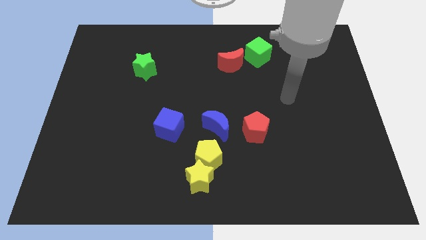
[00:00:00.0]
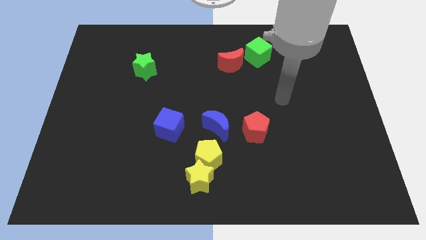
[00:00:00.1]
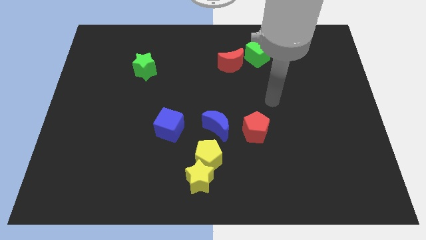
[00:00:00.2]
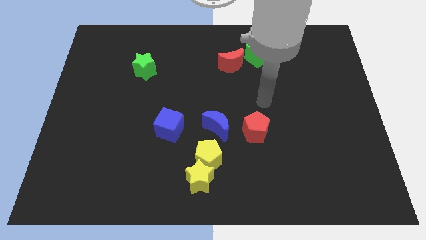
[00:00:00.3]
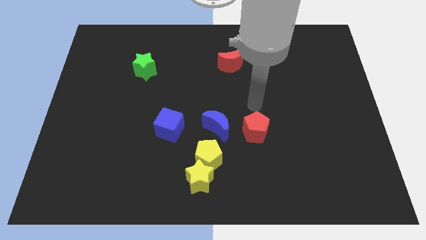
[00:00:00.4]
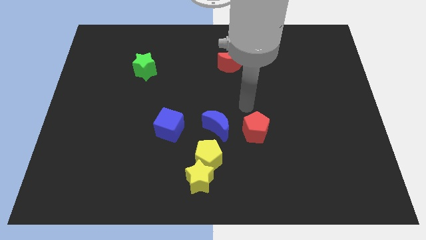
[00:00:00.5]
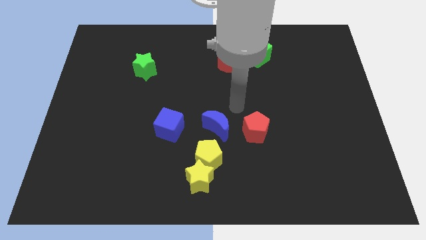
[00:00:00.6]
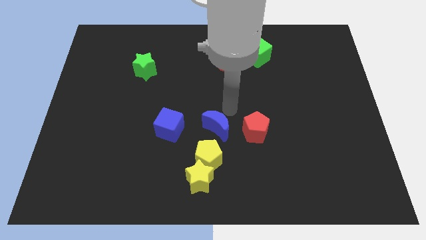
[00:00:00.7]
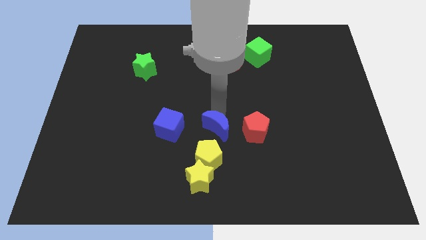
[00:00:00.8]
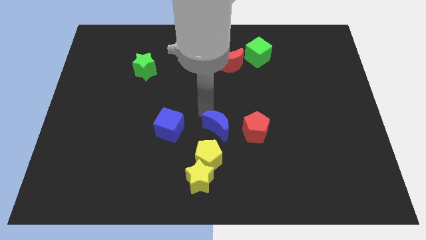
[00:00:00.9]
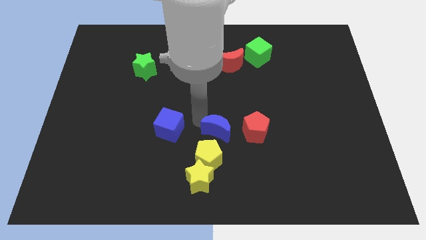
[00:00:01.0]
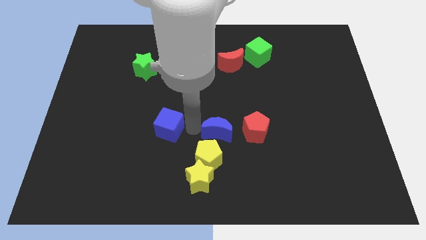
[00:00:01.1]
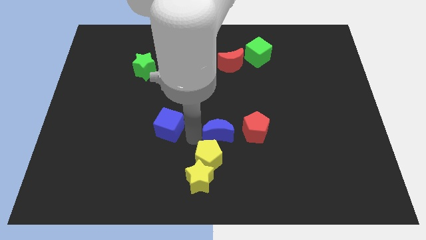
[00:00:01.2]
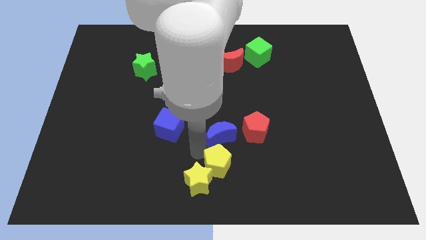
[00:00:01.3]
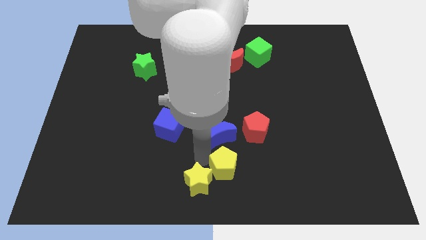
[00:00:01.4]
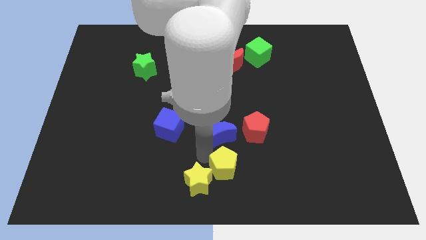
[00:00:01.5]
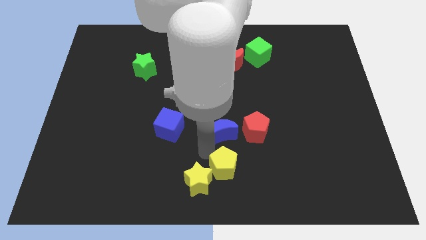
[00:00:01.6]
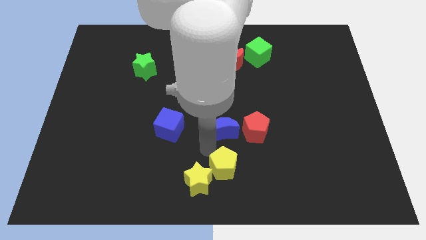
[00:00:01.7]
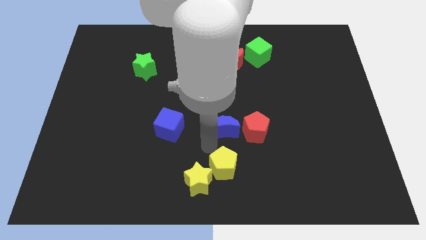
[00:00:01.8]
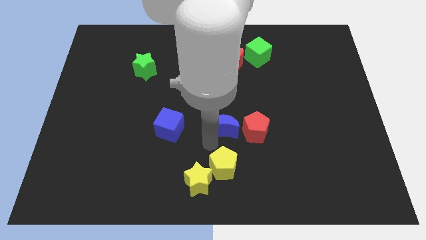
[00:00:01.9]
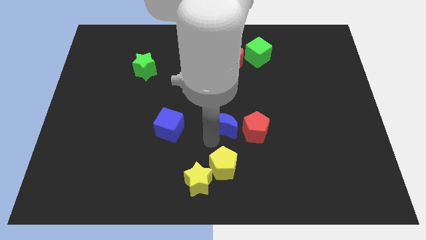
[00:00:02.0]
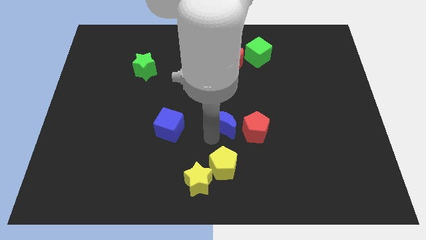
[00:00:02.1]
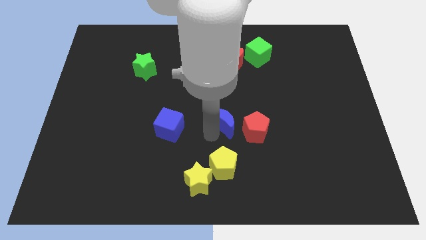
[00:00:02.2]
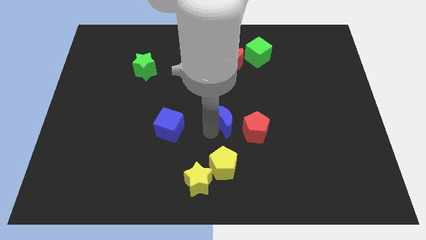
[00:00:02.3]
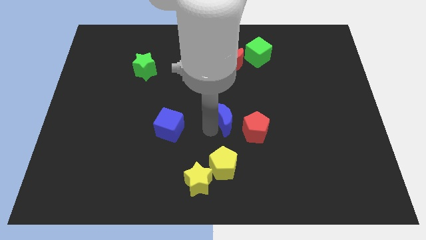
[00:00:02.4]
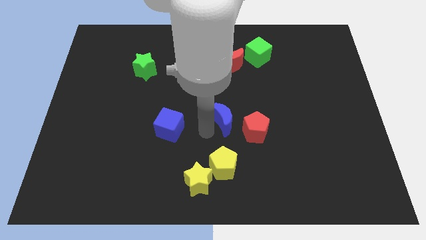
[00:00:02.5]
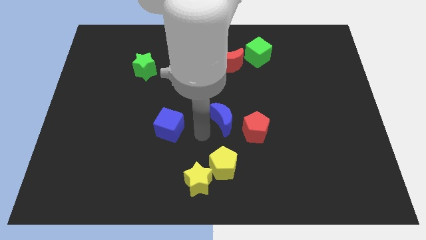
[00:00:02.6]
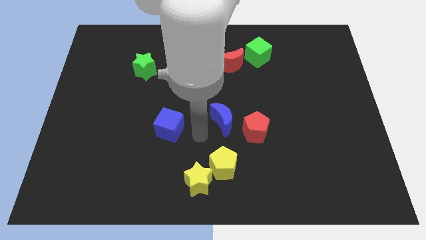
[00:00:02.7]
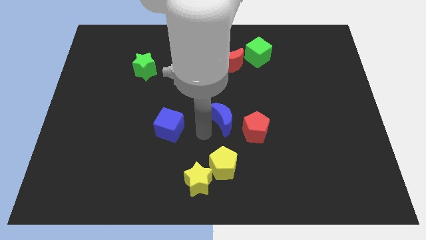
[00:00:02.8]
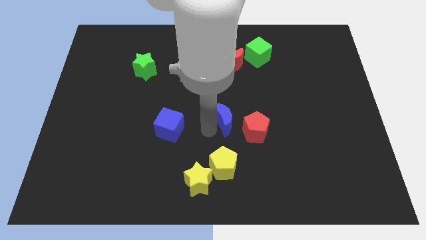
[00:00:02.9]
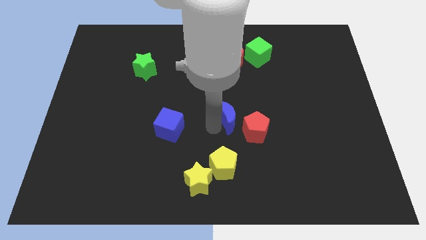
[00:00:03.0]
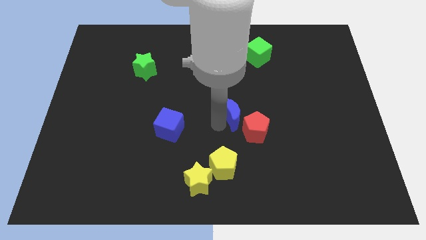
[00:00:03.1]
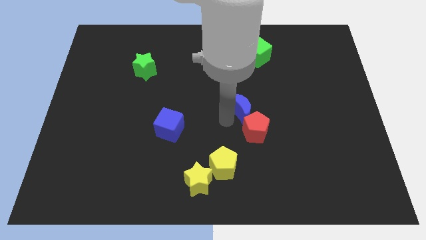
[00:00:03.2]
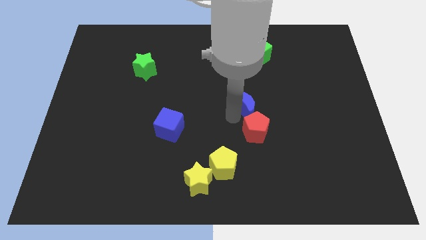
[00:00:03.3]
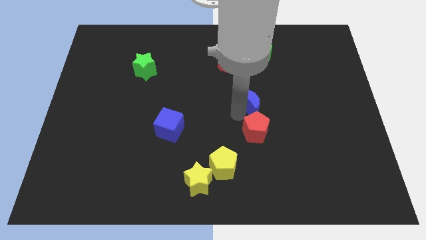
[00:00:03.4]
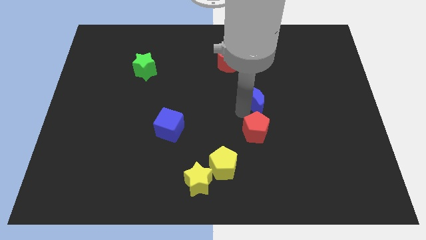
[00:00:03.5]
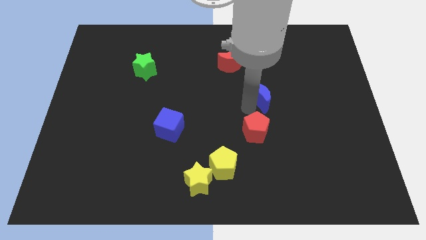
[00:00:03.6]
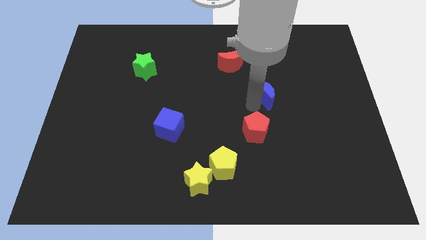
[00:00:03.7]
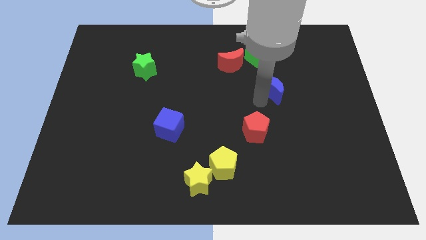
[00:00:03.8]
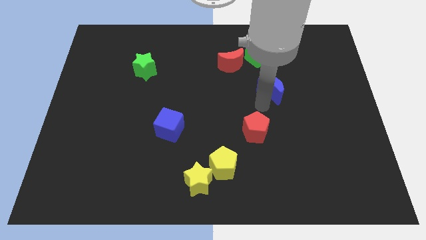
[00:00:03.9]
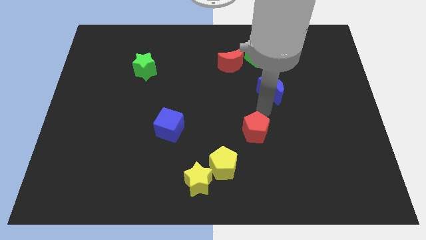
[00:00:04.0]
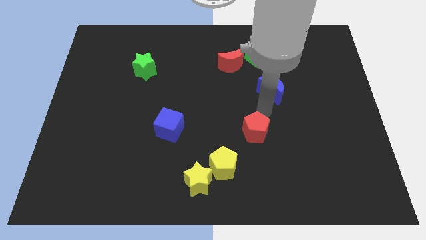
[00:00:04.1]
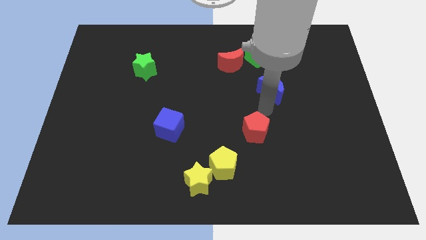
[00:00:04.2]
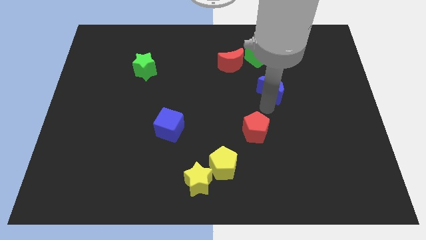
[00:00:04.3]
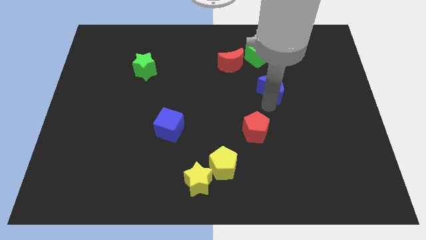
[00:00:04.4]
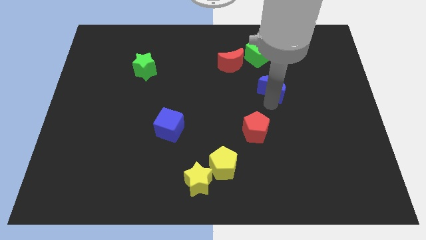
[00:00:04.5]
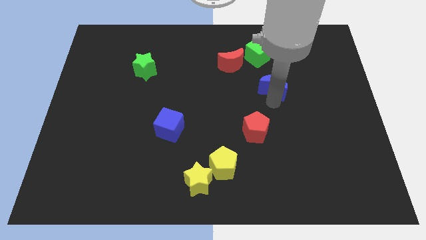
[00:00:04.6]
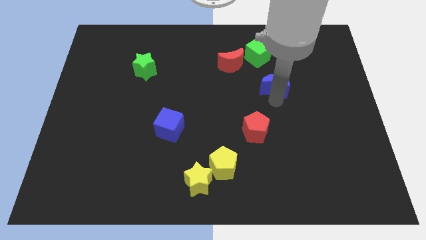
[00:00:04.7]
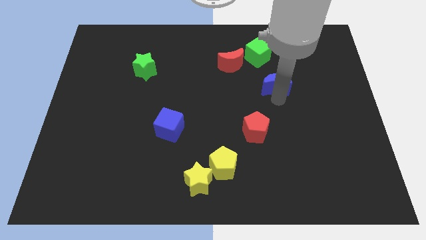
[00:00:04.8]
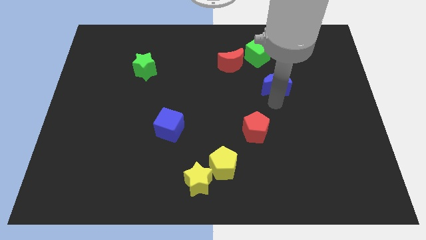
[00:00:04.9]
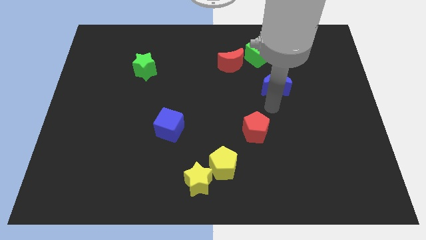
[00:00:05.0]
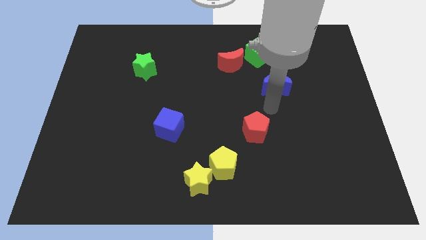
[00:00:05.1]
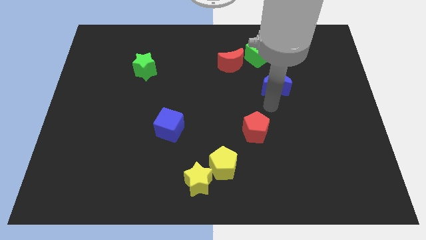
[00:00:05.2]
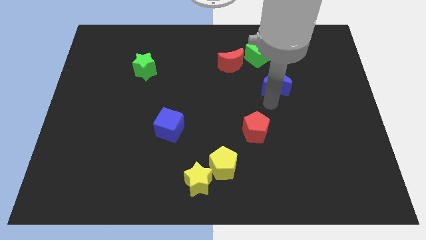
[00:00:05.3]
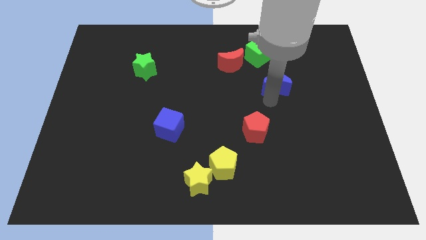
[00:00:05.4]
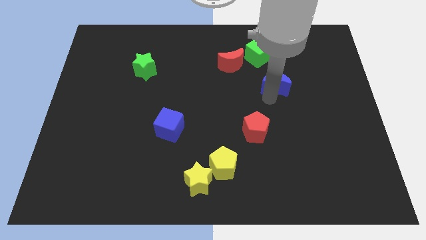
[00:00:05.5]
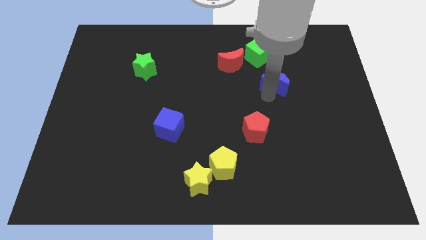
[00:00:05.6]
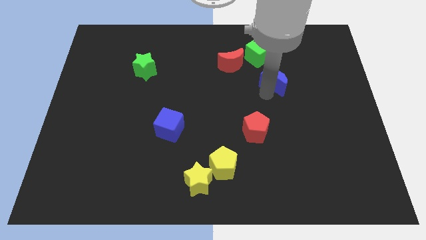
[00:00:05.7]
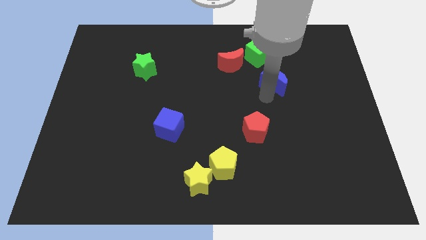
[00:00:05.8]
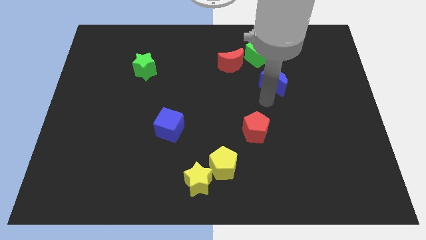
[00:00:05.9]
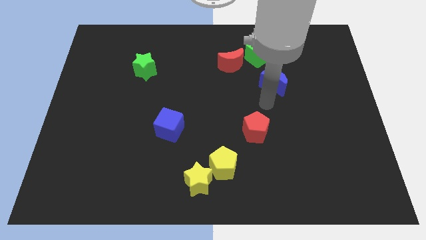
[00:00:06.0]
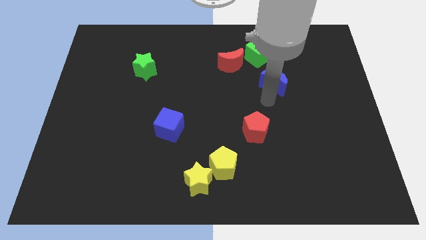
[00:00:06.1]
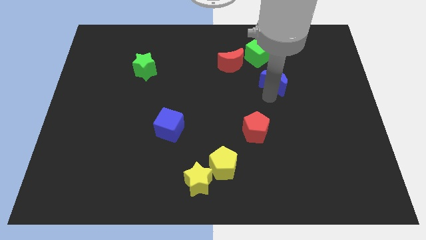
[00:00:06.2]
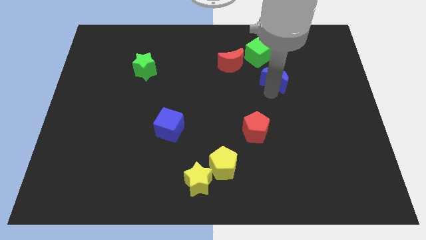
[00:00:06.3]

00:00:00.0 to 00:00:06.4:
slide the blue moon upwards and then to the right

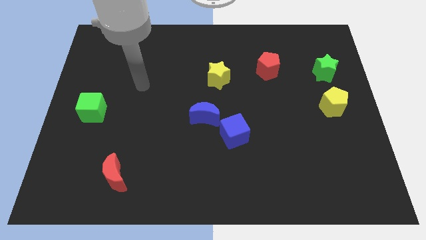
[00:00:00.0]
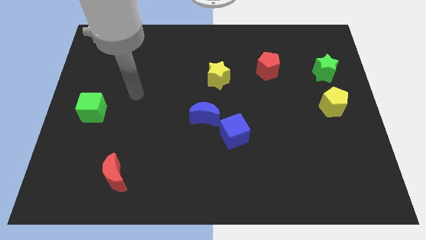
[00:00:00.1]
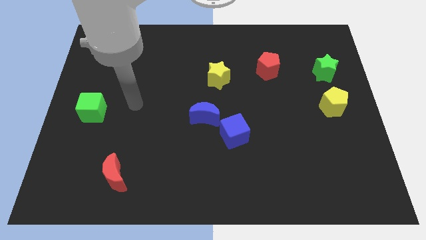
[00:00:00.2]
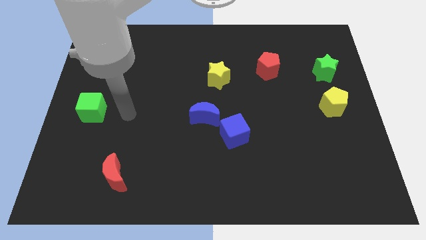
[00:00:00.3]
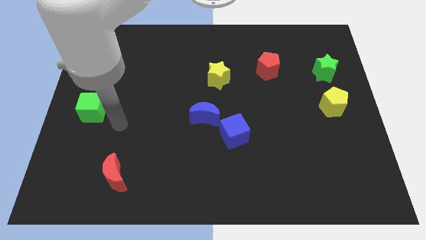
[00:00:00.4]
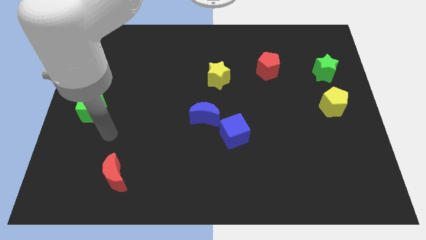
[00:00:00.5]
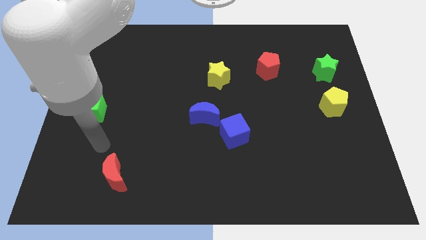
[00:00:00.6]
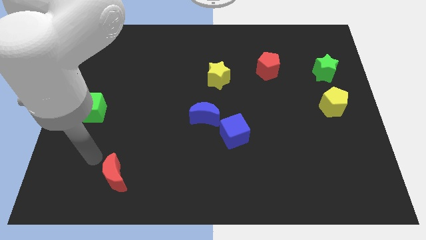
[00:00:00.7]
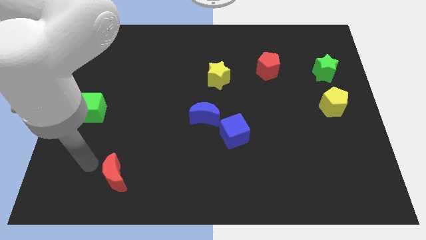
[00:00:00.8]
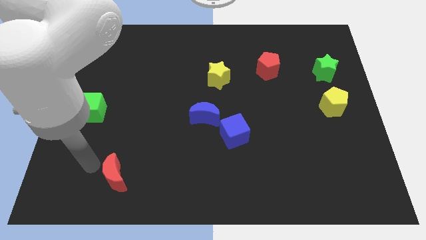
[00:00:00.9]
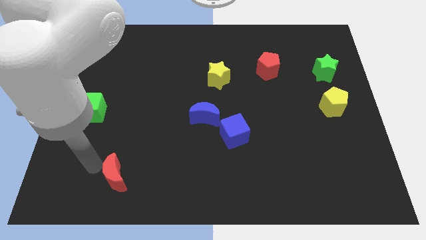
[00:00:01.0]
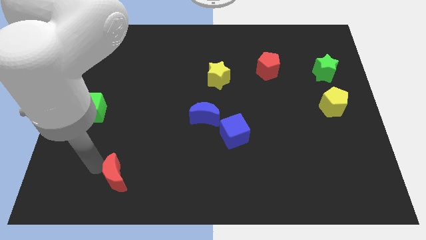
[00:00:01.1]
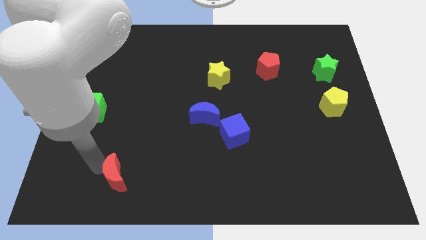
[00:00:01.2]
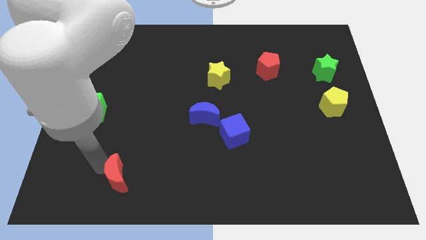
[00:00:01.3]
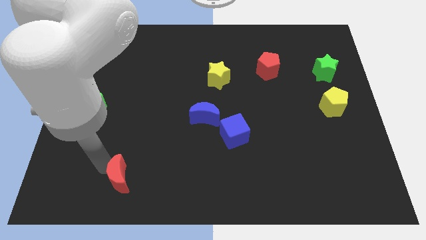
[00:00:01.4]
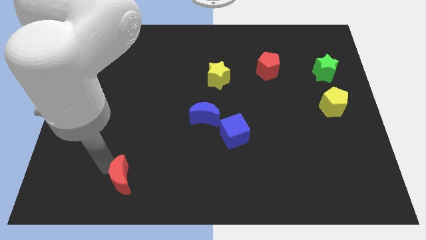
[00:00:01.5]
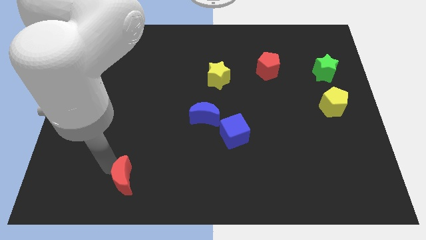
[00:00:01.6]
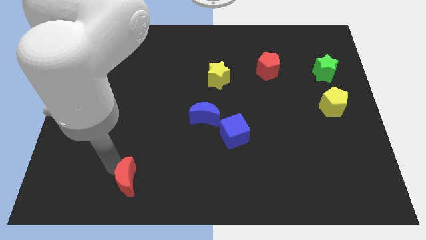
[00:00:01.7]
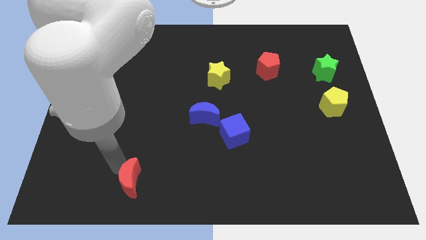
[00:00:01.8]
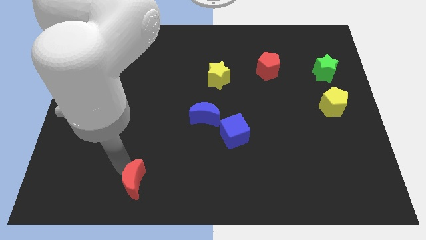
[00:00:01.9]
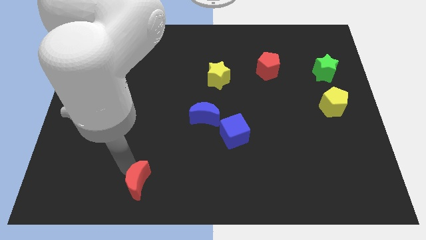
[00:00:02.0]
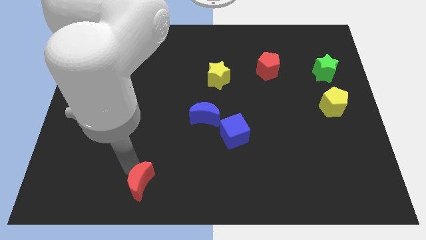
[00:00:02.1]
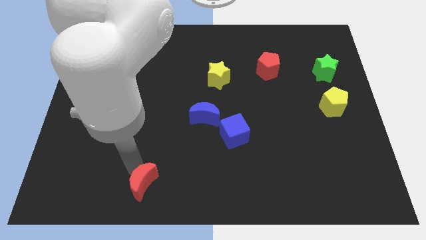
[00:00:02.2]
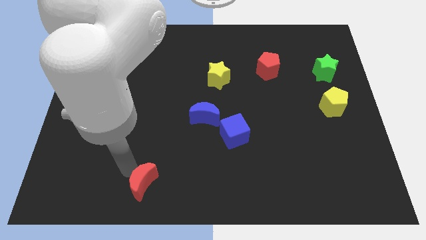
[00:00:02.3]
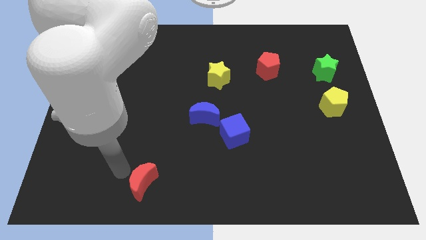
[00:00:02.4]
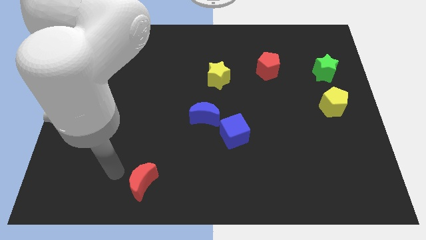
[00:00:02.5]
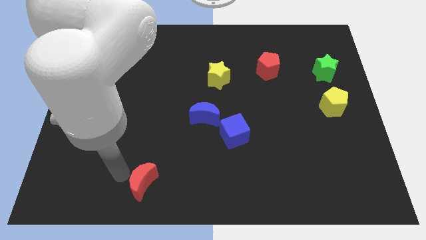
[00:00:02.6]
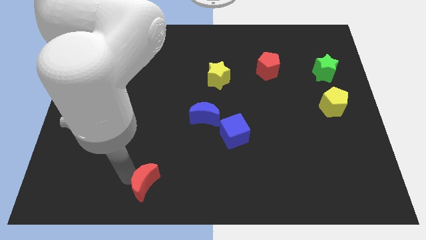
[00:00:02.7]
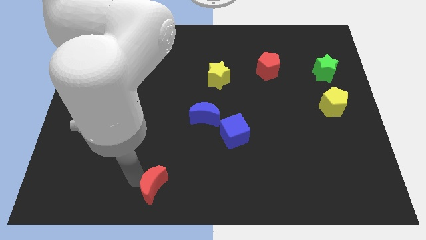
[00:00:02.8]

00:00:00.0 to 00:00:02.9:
push the red moon right a bit
